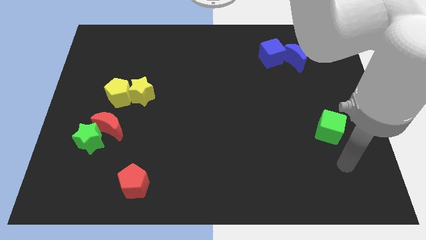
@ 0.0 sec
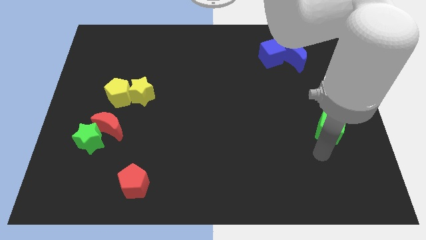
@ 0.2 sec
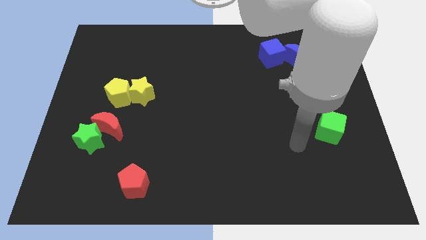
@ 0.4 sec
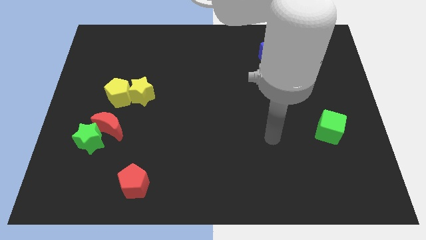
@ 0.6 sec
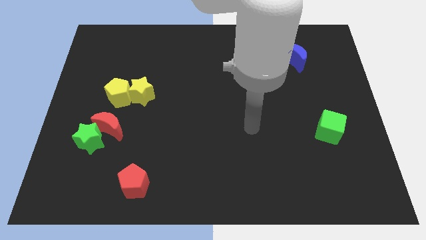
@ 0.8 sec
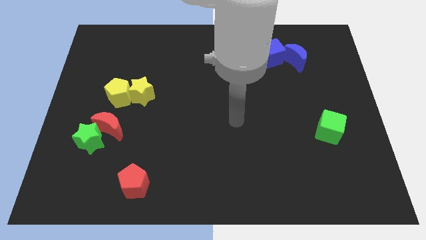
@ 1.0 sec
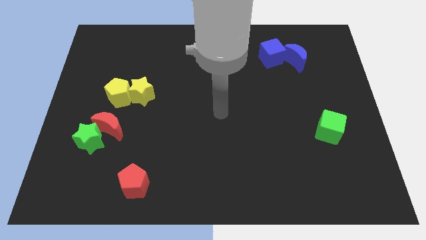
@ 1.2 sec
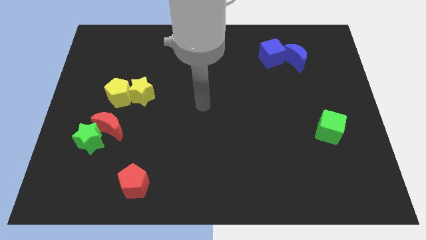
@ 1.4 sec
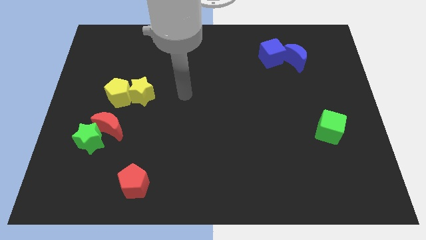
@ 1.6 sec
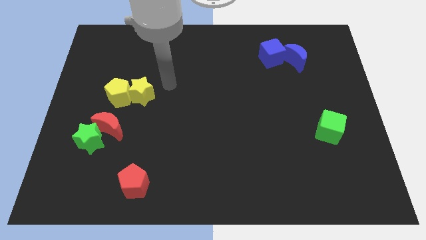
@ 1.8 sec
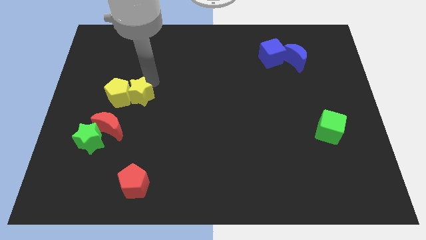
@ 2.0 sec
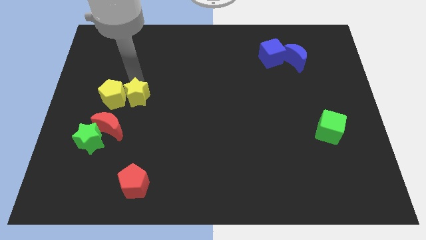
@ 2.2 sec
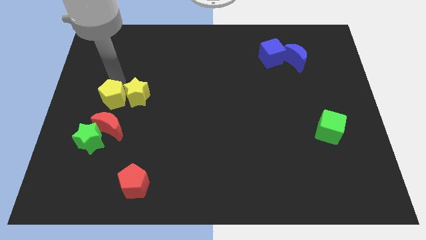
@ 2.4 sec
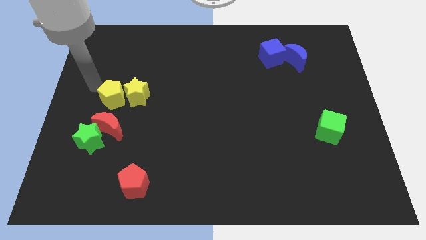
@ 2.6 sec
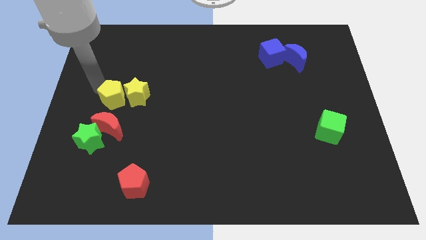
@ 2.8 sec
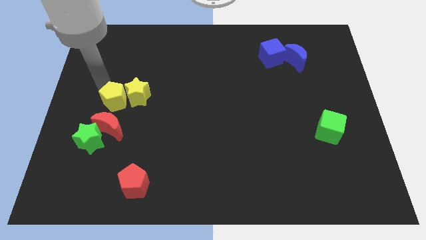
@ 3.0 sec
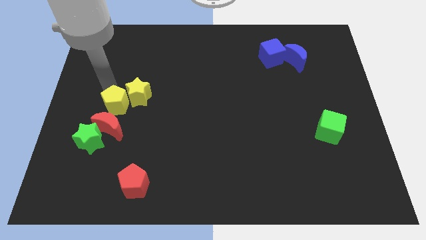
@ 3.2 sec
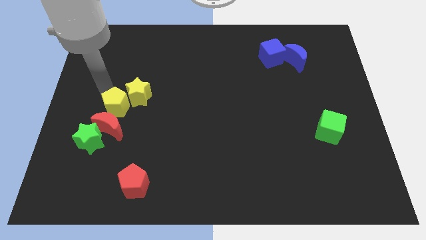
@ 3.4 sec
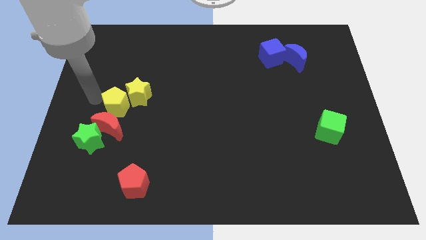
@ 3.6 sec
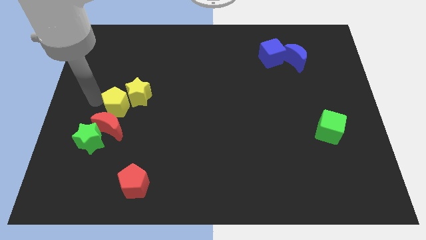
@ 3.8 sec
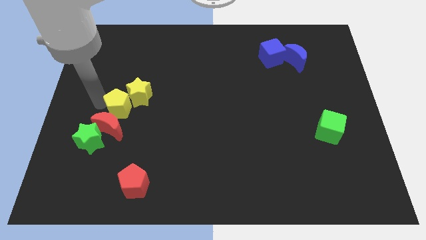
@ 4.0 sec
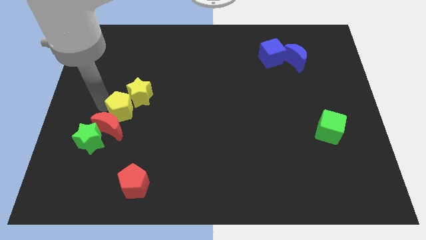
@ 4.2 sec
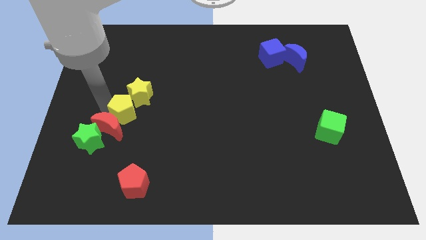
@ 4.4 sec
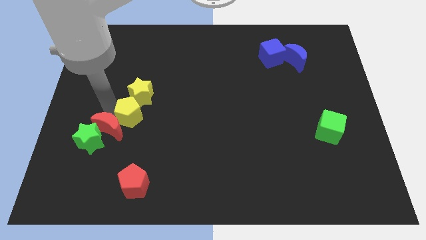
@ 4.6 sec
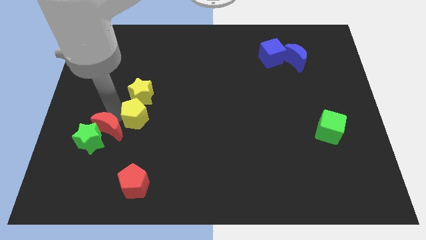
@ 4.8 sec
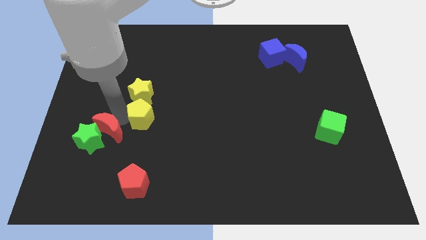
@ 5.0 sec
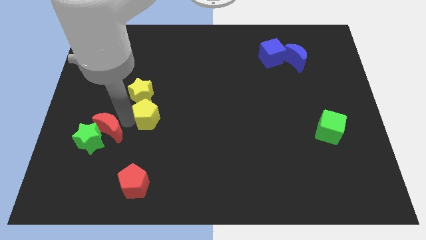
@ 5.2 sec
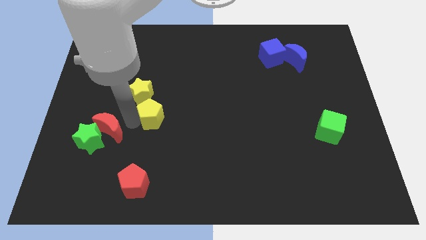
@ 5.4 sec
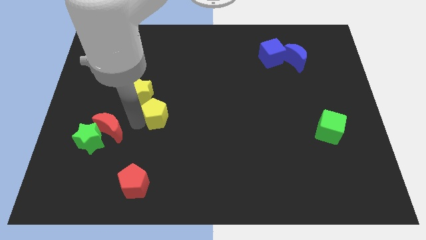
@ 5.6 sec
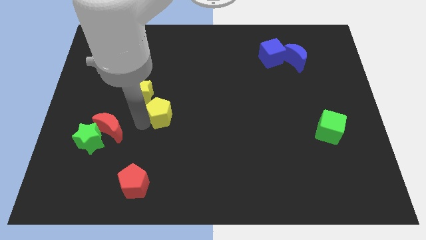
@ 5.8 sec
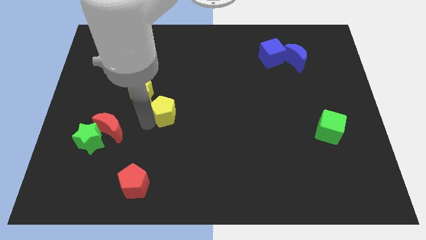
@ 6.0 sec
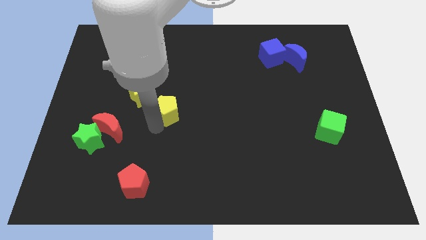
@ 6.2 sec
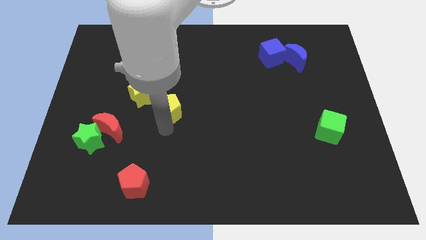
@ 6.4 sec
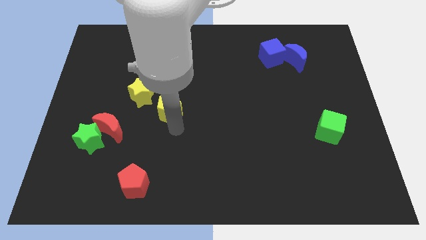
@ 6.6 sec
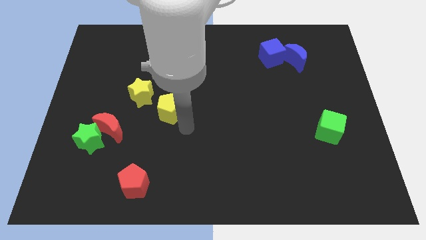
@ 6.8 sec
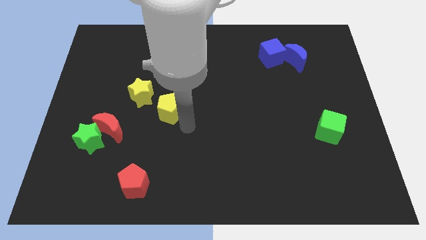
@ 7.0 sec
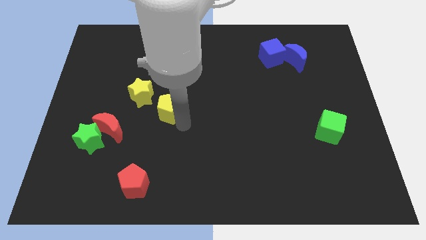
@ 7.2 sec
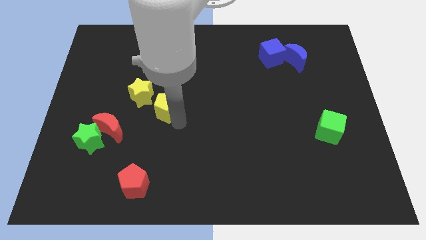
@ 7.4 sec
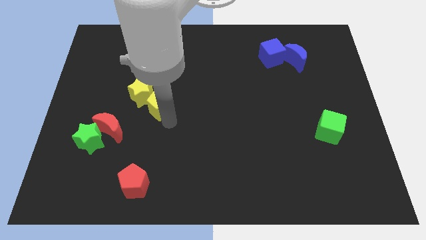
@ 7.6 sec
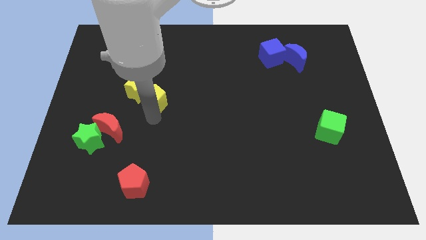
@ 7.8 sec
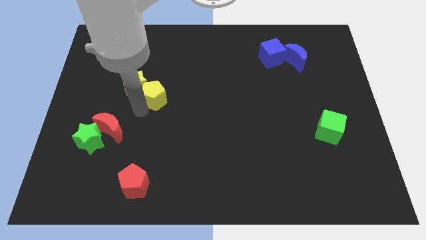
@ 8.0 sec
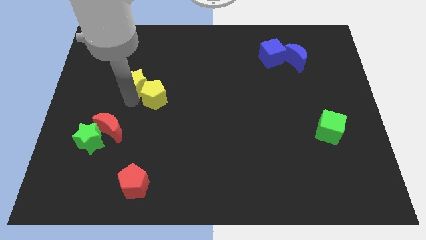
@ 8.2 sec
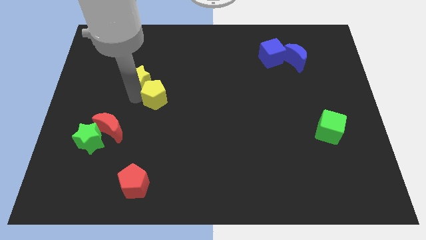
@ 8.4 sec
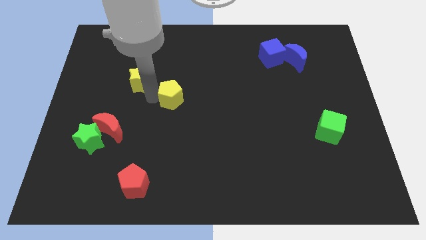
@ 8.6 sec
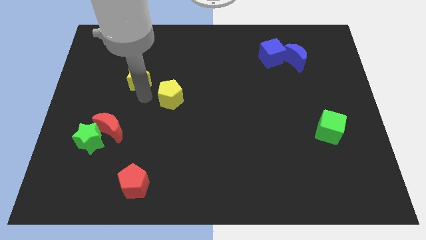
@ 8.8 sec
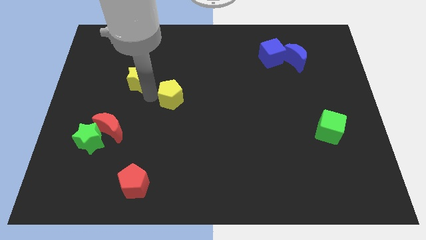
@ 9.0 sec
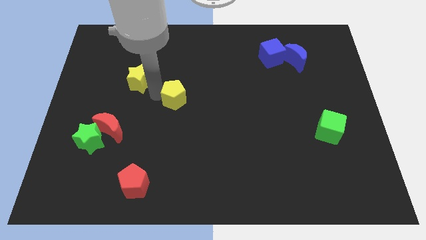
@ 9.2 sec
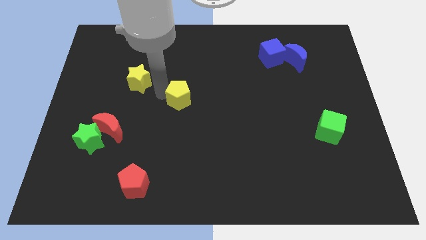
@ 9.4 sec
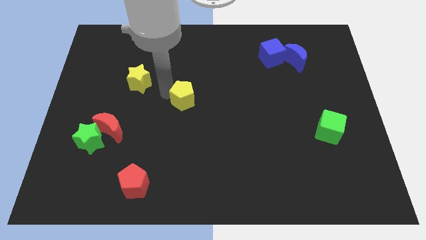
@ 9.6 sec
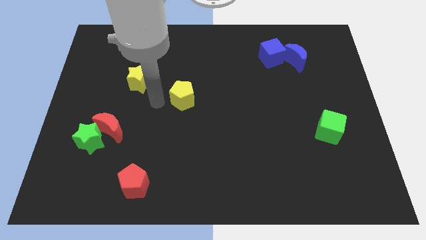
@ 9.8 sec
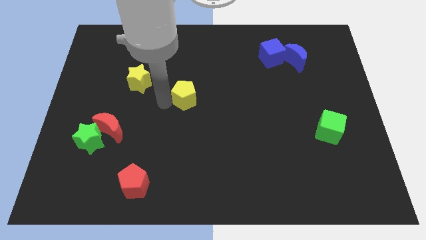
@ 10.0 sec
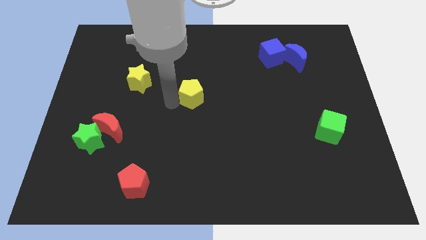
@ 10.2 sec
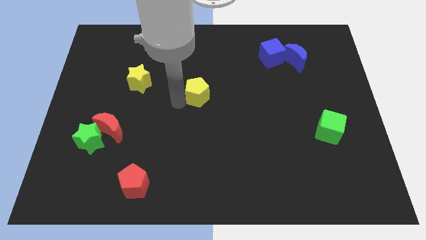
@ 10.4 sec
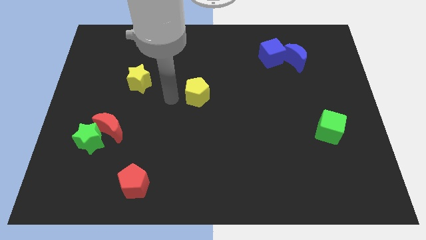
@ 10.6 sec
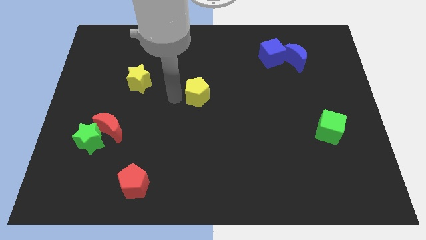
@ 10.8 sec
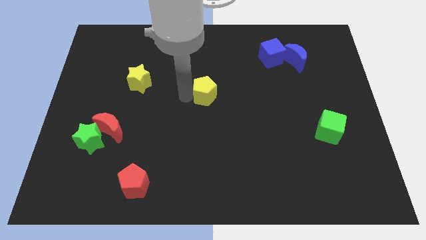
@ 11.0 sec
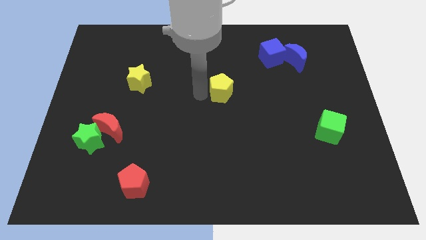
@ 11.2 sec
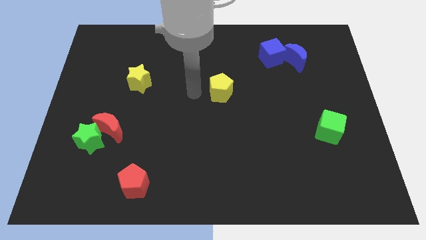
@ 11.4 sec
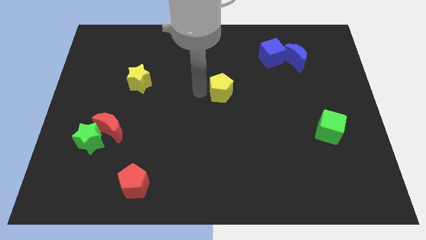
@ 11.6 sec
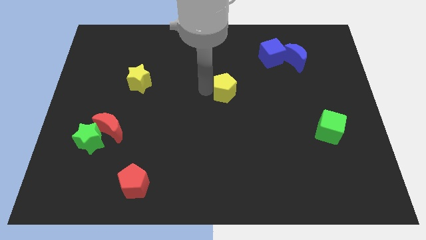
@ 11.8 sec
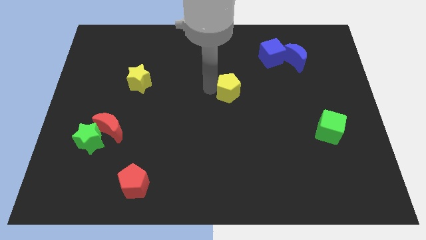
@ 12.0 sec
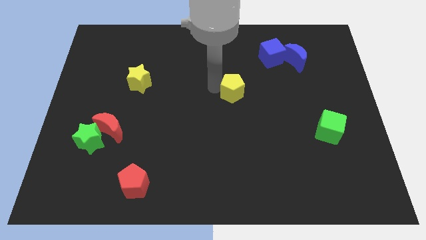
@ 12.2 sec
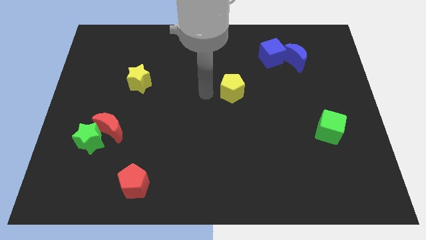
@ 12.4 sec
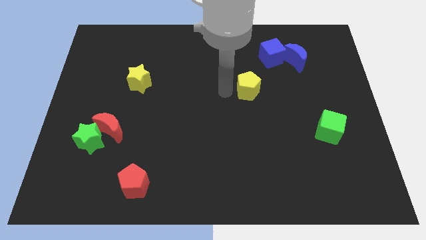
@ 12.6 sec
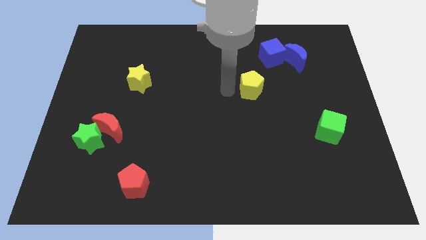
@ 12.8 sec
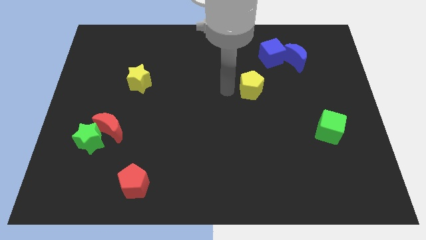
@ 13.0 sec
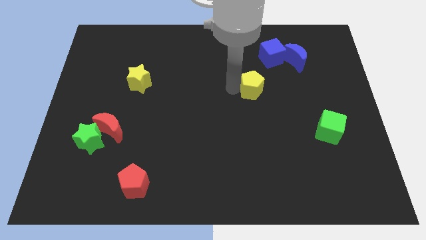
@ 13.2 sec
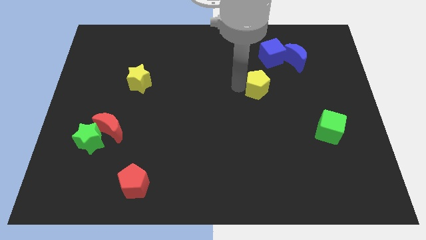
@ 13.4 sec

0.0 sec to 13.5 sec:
push the yellow pentagon below the blue cube

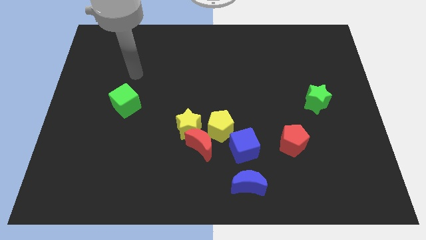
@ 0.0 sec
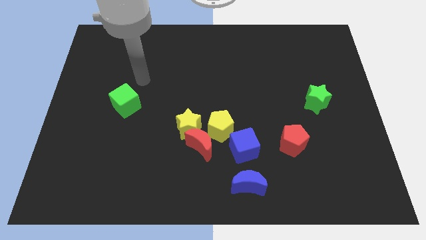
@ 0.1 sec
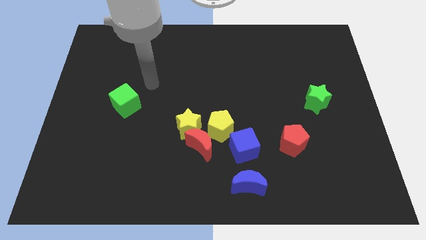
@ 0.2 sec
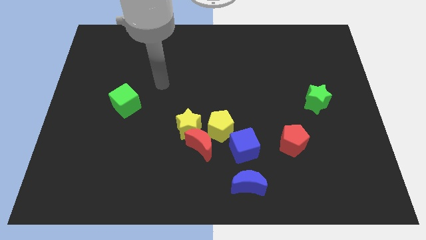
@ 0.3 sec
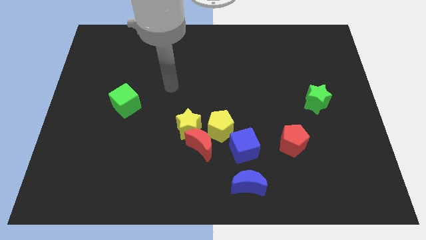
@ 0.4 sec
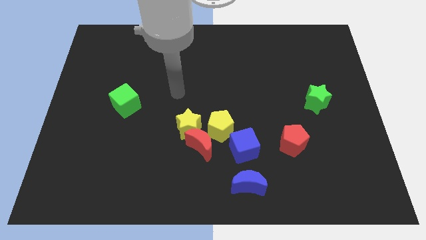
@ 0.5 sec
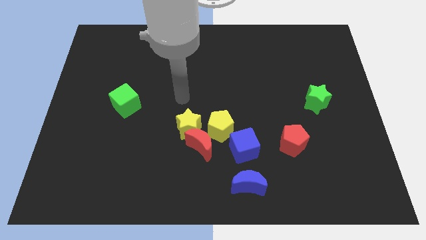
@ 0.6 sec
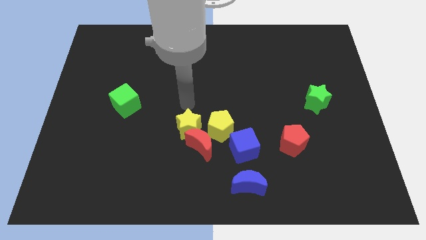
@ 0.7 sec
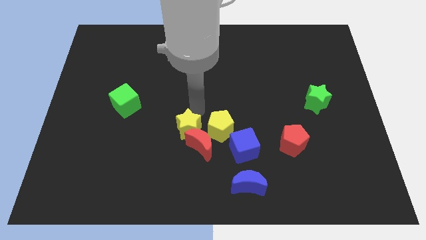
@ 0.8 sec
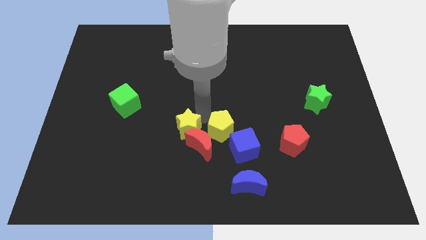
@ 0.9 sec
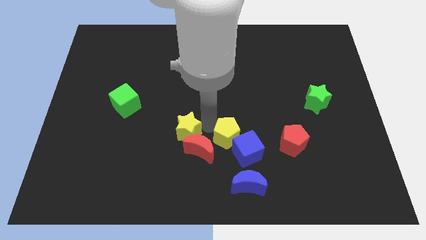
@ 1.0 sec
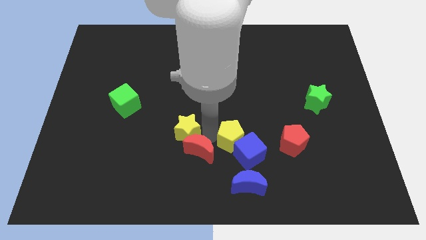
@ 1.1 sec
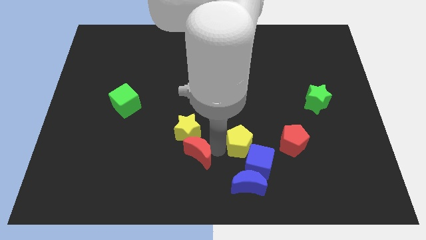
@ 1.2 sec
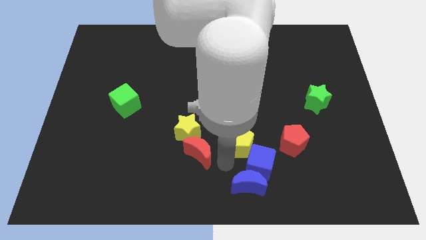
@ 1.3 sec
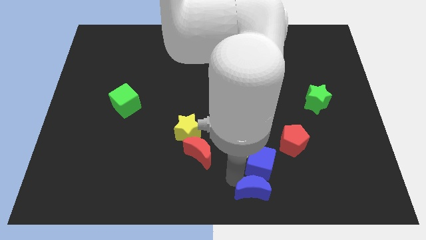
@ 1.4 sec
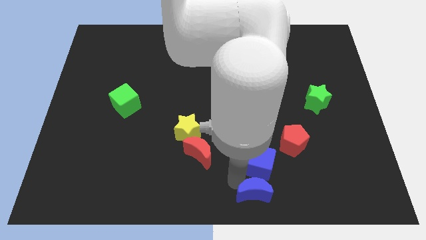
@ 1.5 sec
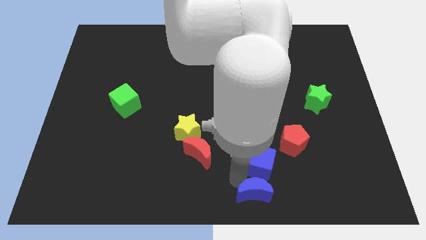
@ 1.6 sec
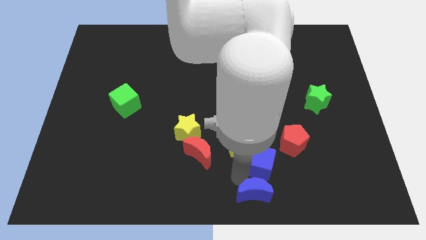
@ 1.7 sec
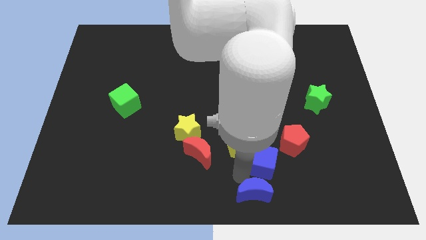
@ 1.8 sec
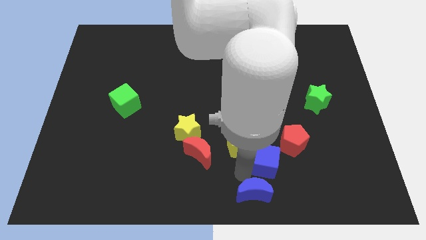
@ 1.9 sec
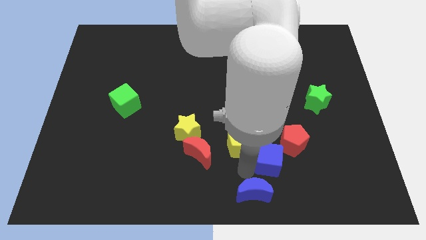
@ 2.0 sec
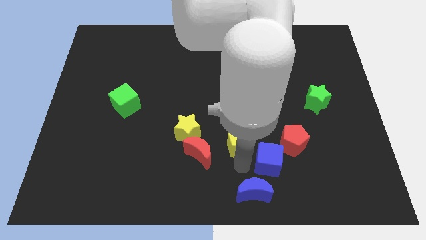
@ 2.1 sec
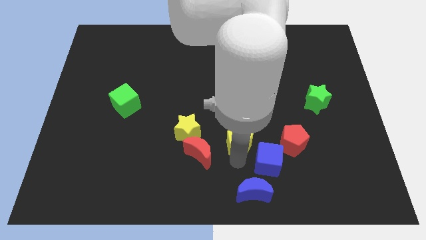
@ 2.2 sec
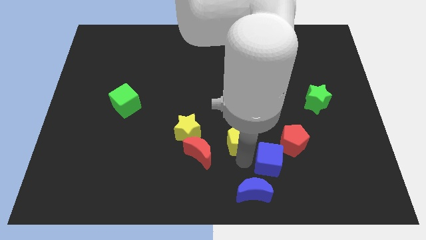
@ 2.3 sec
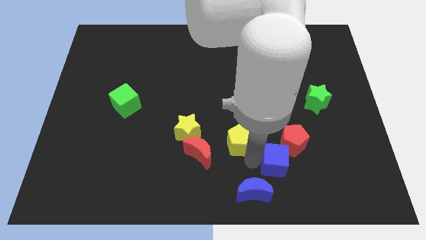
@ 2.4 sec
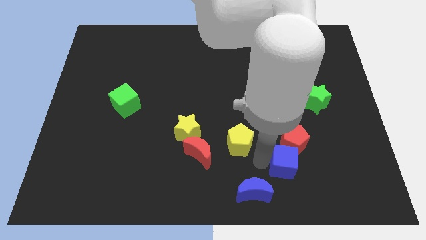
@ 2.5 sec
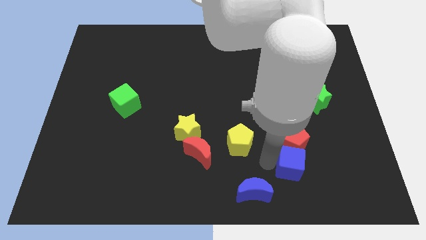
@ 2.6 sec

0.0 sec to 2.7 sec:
push the blue cube diagonally down and to the right of the red pentagon
